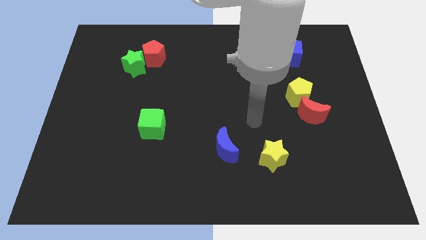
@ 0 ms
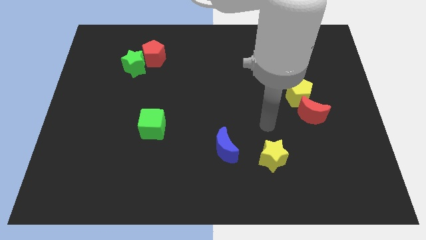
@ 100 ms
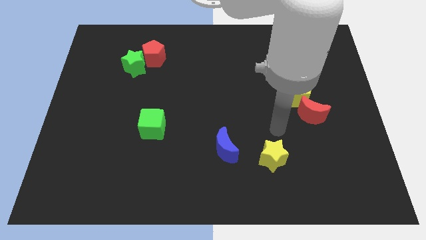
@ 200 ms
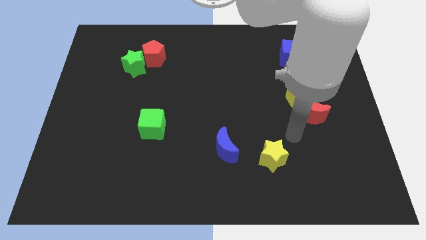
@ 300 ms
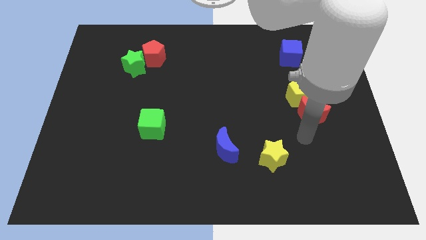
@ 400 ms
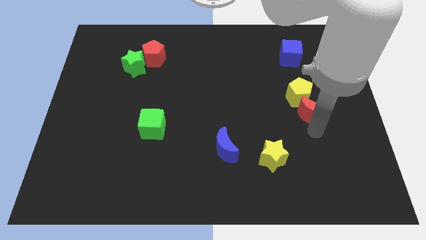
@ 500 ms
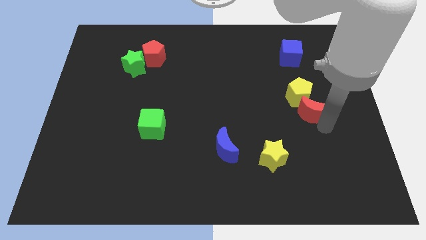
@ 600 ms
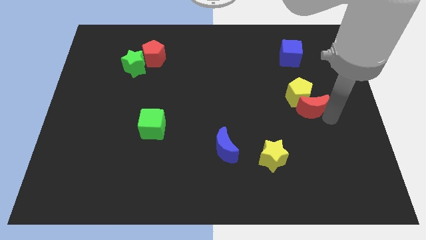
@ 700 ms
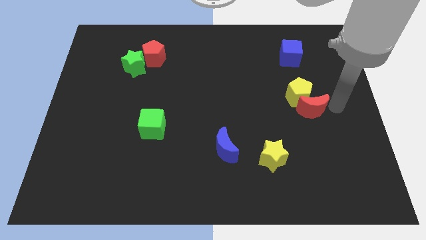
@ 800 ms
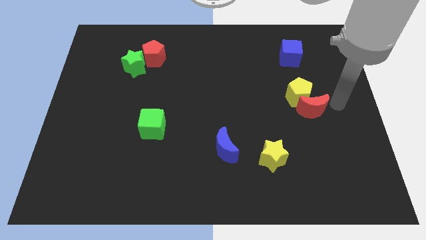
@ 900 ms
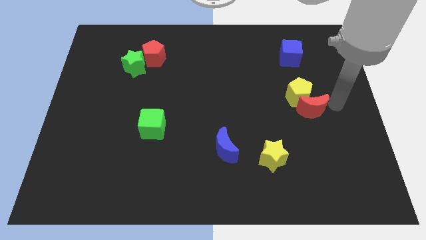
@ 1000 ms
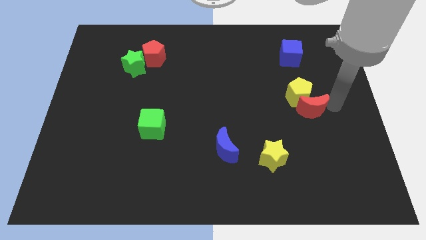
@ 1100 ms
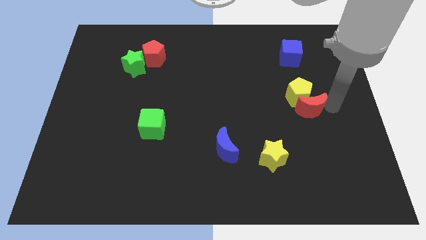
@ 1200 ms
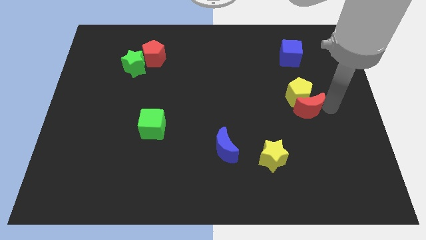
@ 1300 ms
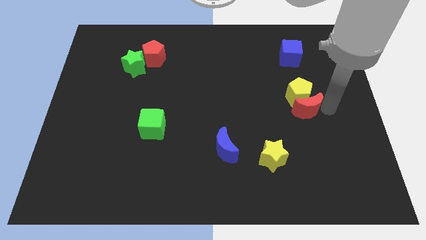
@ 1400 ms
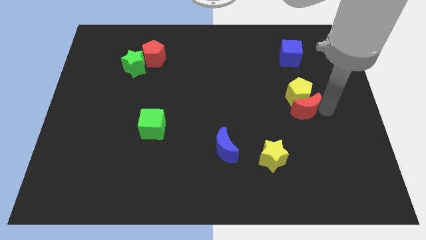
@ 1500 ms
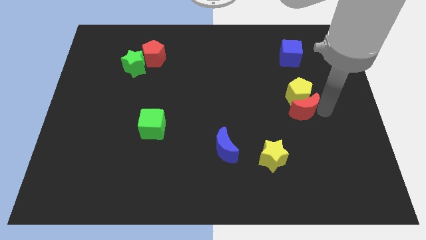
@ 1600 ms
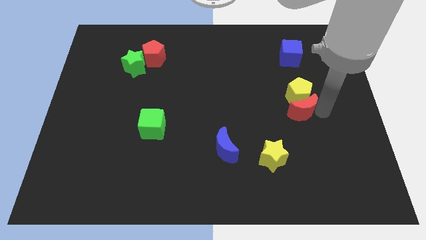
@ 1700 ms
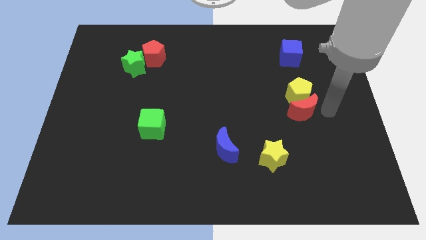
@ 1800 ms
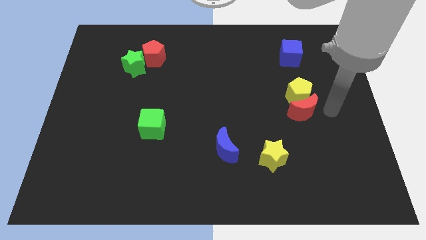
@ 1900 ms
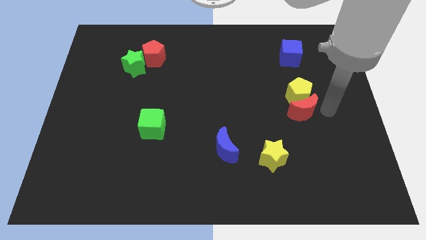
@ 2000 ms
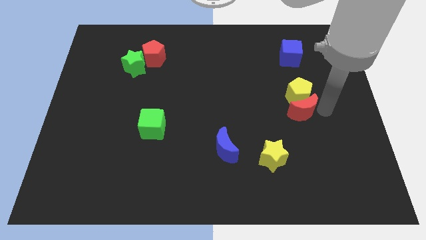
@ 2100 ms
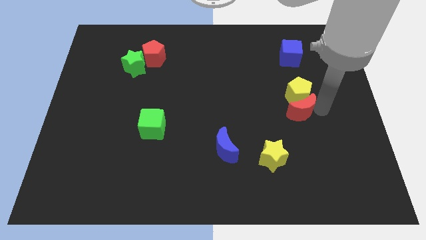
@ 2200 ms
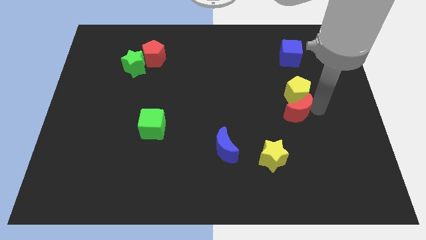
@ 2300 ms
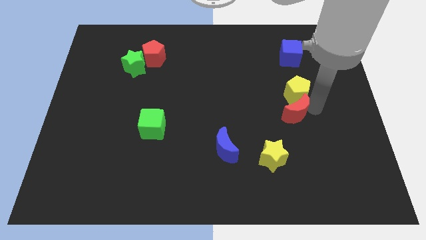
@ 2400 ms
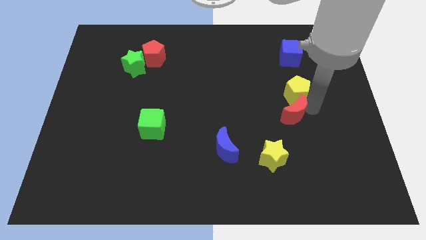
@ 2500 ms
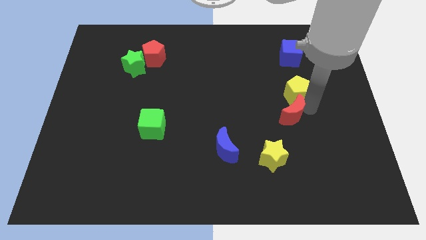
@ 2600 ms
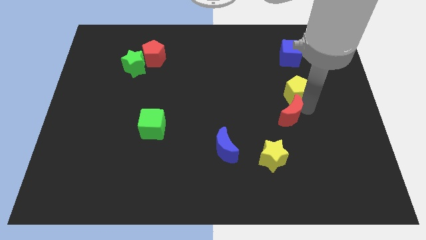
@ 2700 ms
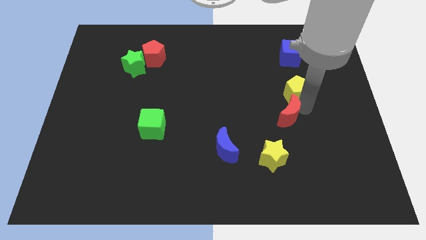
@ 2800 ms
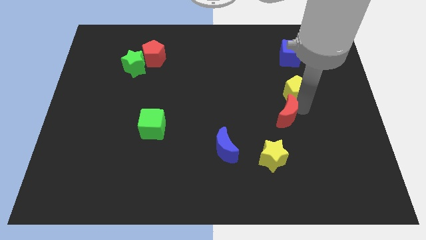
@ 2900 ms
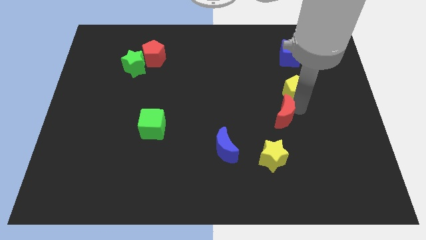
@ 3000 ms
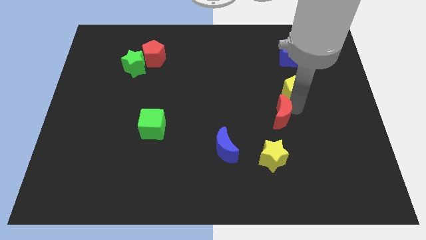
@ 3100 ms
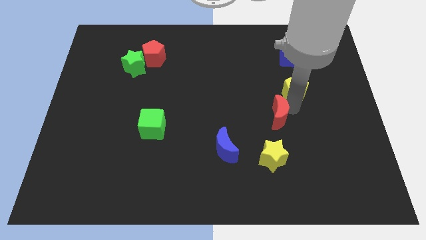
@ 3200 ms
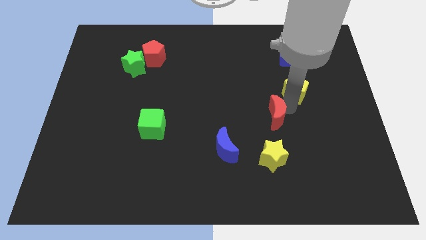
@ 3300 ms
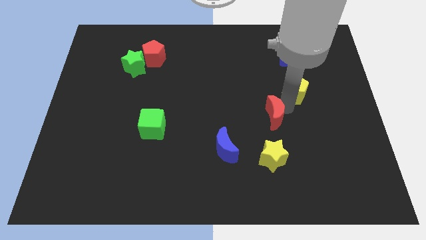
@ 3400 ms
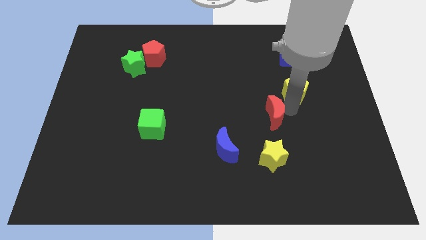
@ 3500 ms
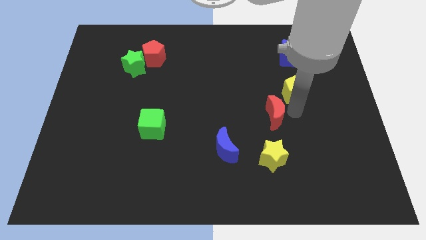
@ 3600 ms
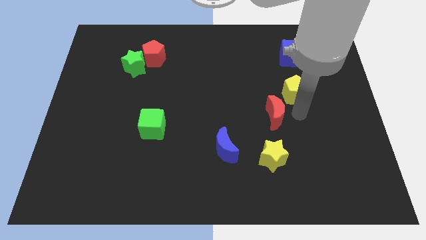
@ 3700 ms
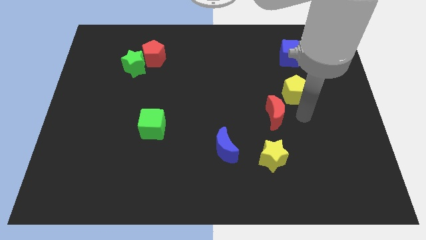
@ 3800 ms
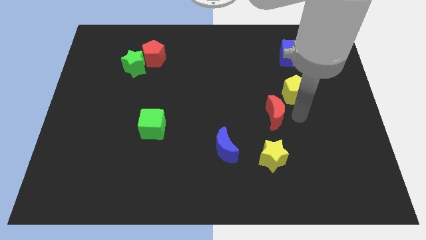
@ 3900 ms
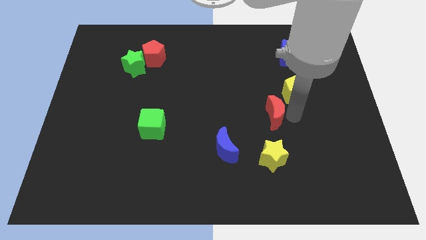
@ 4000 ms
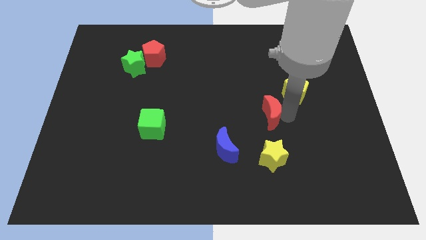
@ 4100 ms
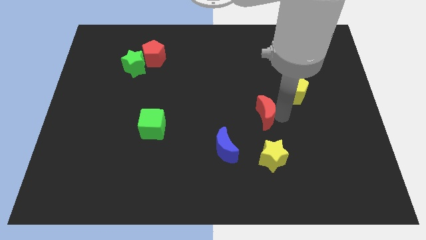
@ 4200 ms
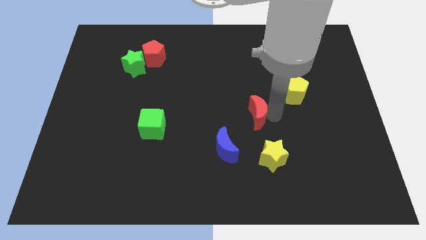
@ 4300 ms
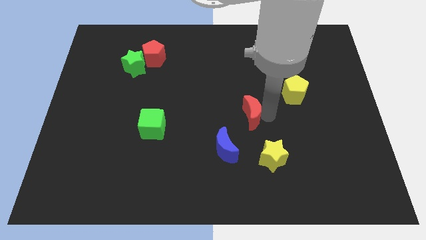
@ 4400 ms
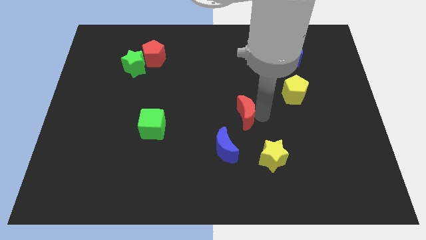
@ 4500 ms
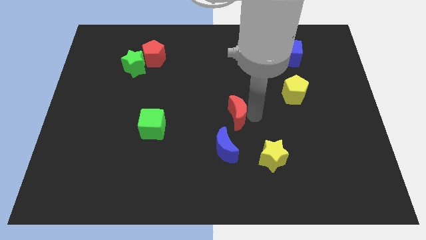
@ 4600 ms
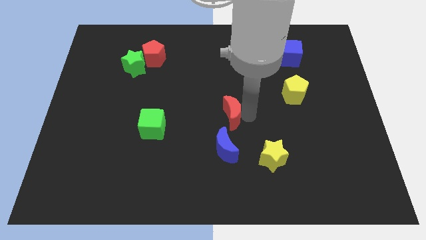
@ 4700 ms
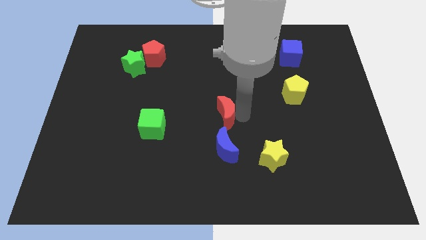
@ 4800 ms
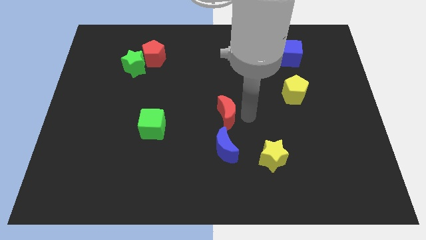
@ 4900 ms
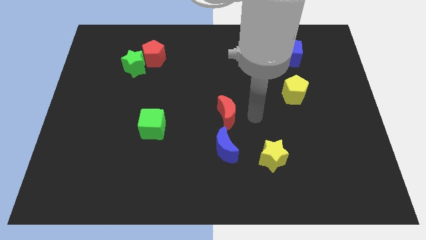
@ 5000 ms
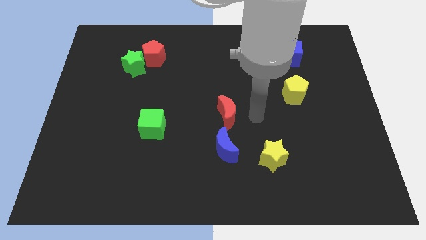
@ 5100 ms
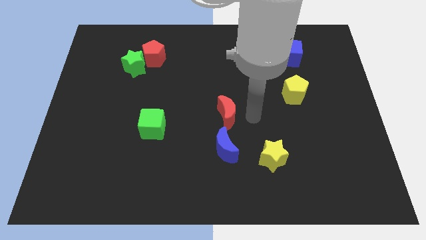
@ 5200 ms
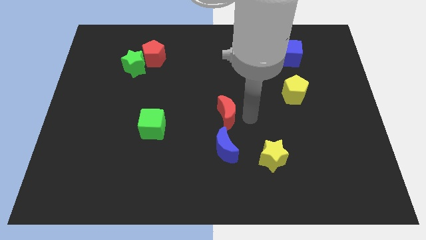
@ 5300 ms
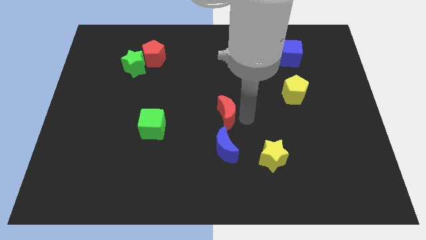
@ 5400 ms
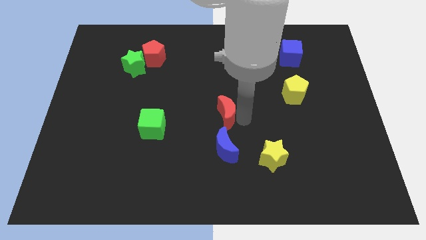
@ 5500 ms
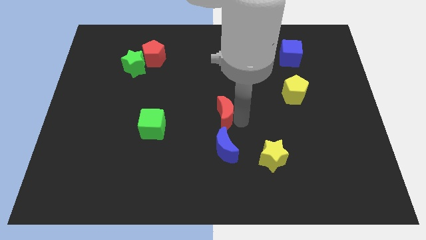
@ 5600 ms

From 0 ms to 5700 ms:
move the red moon left

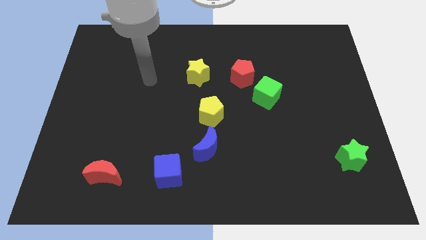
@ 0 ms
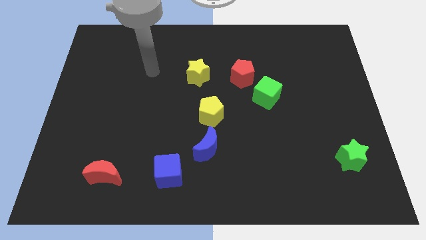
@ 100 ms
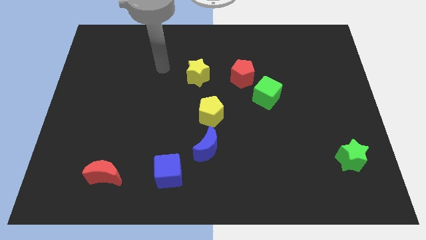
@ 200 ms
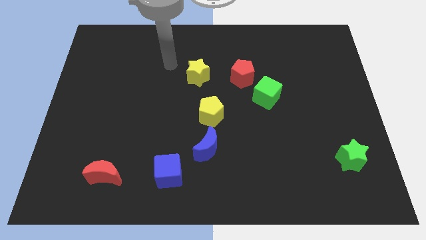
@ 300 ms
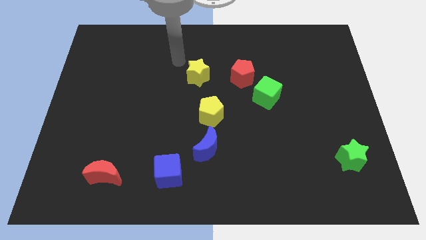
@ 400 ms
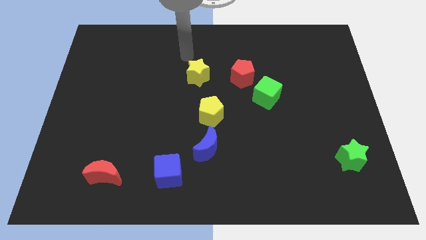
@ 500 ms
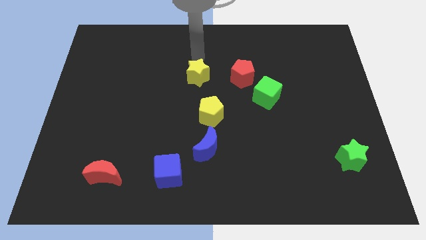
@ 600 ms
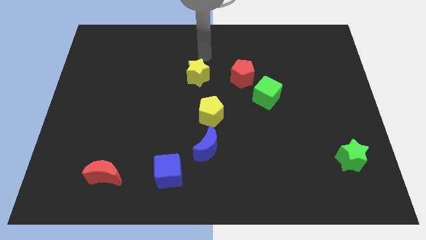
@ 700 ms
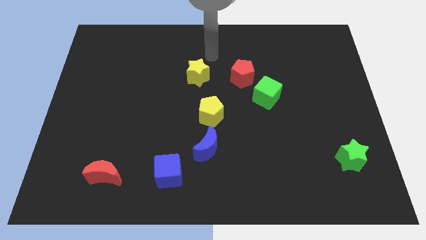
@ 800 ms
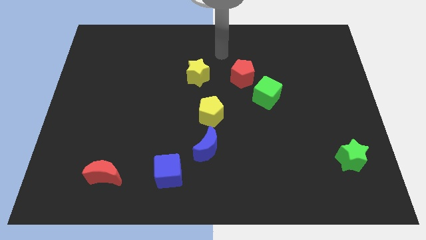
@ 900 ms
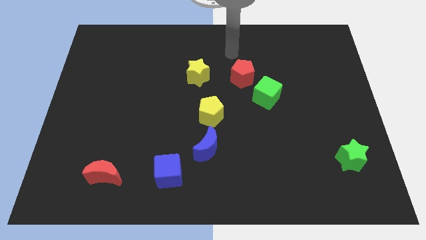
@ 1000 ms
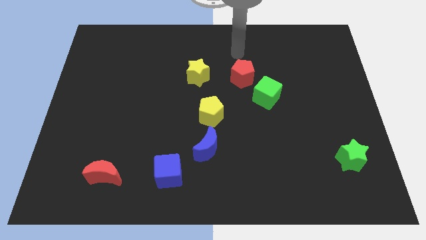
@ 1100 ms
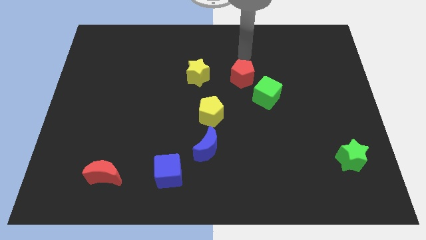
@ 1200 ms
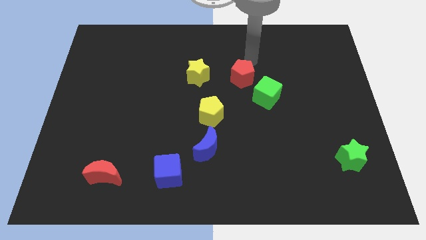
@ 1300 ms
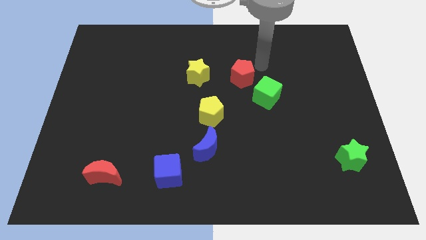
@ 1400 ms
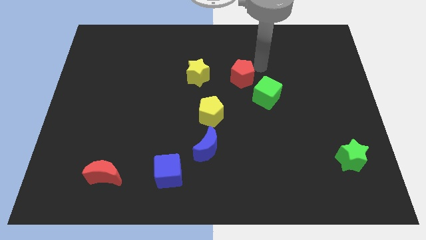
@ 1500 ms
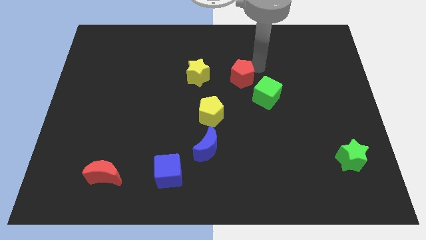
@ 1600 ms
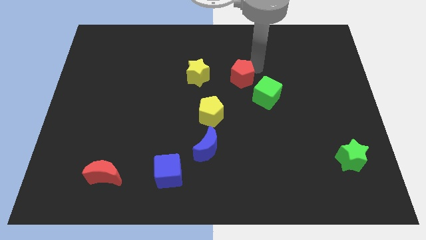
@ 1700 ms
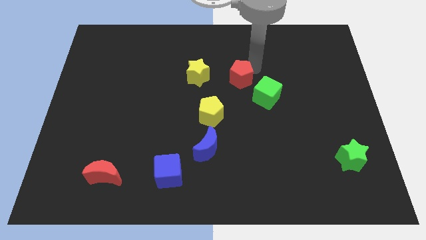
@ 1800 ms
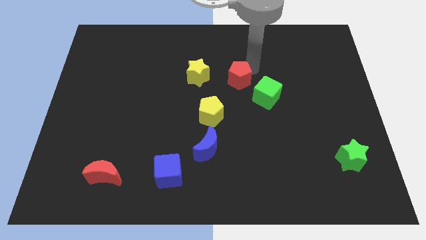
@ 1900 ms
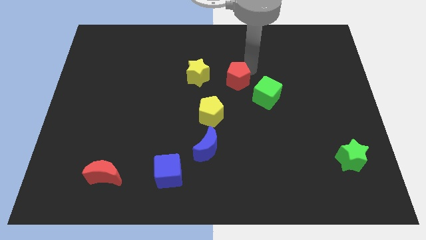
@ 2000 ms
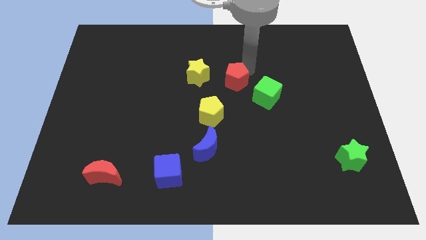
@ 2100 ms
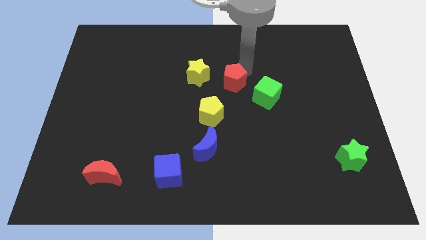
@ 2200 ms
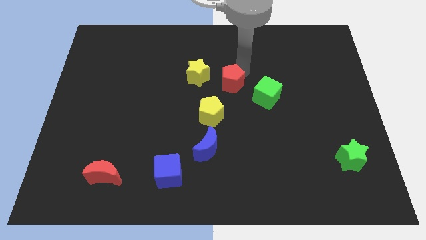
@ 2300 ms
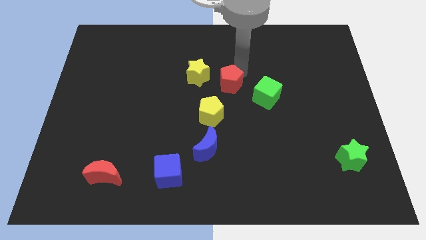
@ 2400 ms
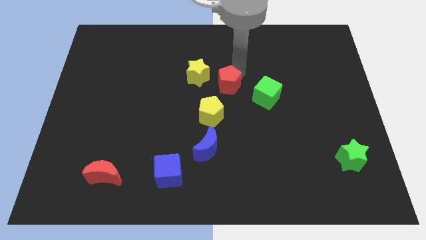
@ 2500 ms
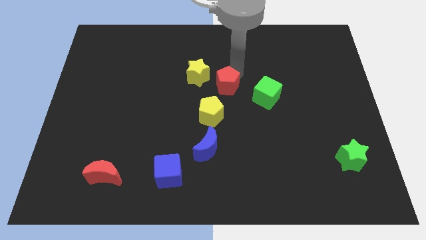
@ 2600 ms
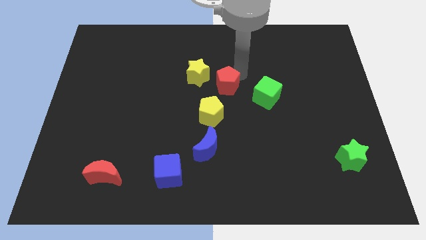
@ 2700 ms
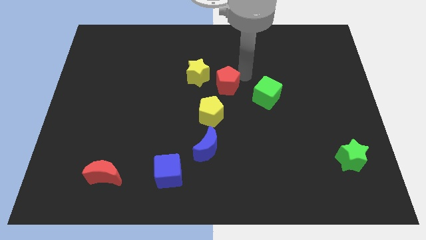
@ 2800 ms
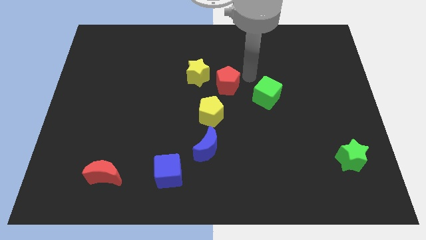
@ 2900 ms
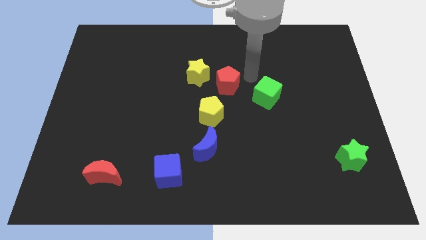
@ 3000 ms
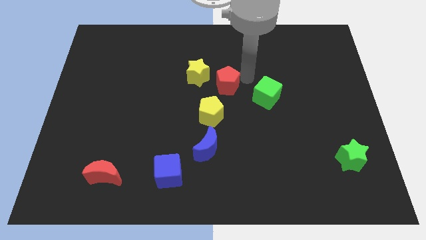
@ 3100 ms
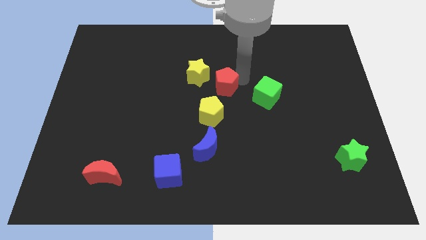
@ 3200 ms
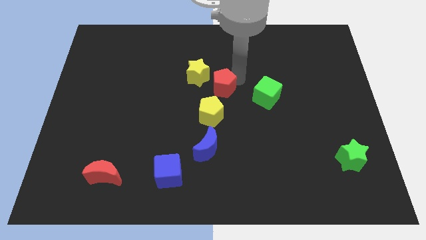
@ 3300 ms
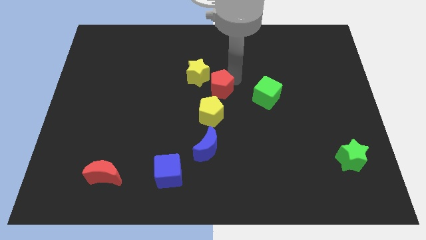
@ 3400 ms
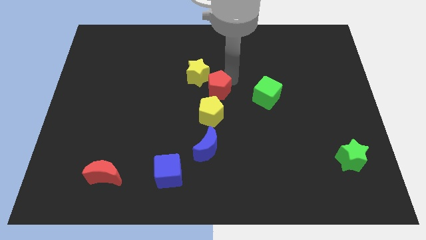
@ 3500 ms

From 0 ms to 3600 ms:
slightly move the red pentagon down and left
